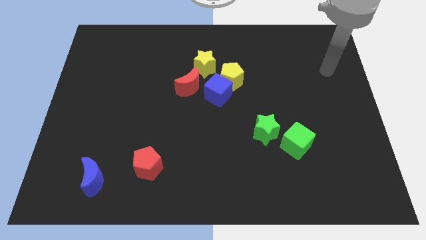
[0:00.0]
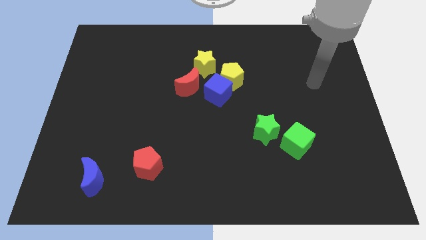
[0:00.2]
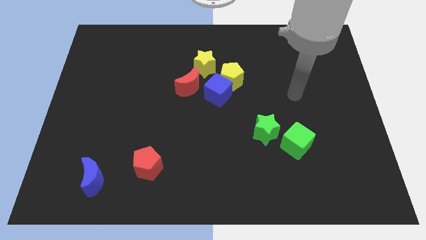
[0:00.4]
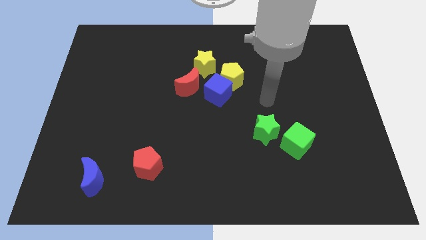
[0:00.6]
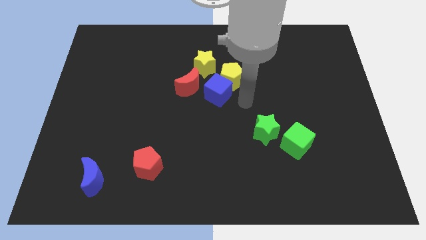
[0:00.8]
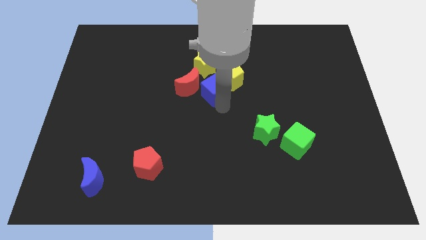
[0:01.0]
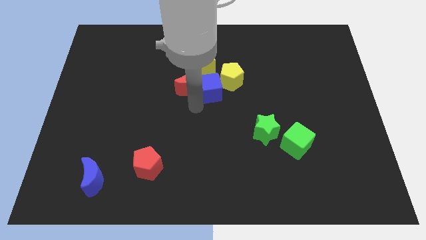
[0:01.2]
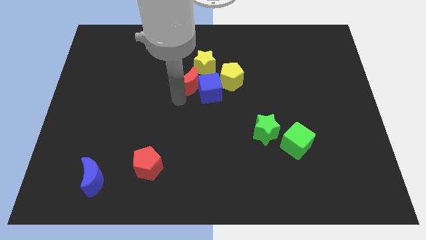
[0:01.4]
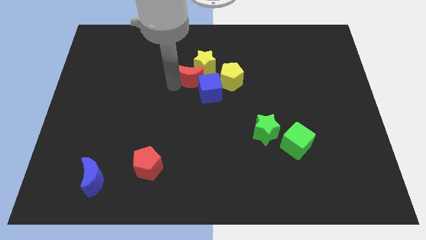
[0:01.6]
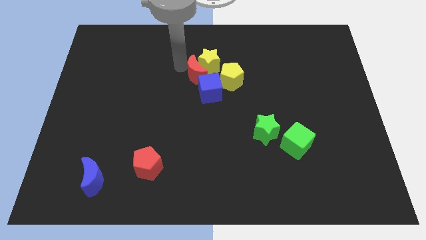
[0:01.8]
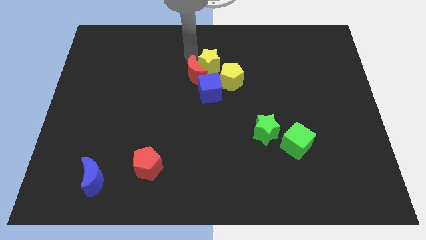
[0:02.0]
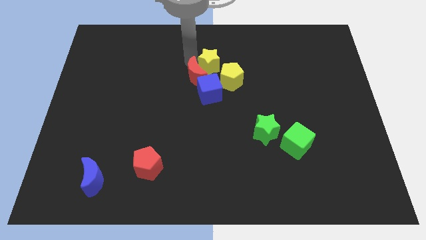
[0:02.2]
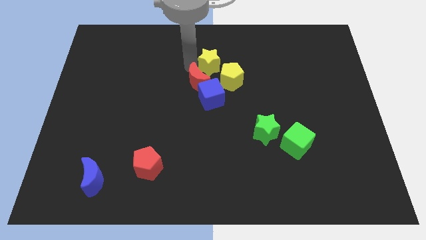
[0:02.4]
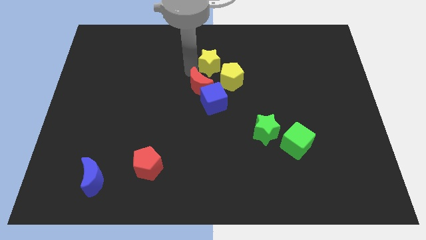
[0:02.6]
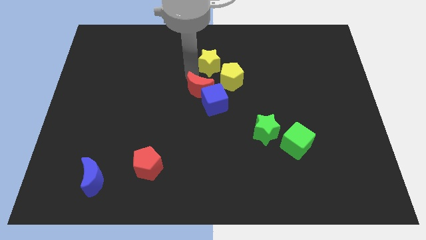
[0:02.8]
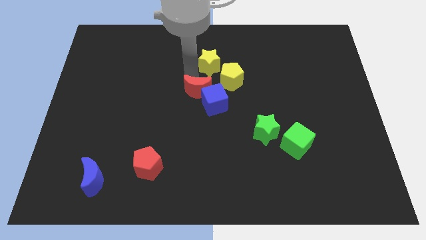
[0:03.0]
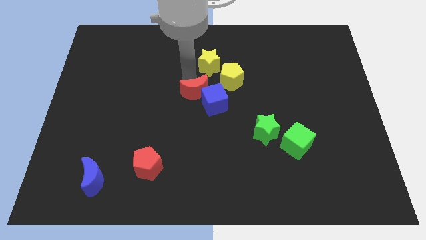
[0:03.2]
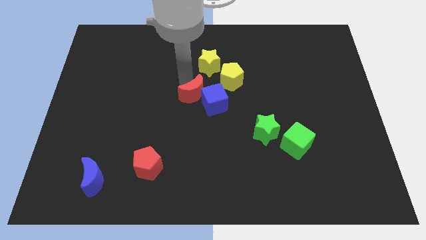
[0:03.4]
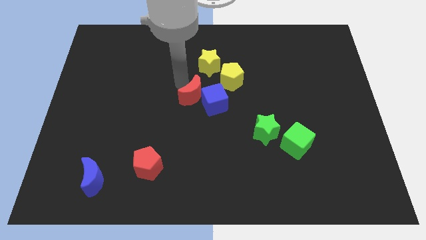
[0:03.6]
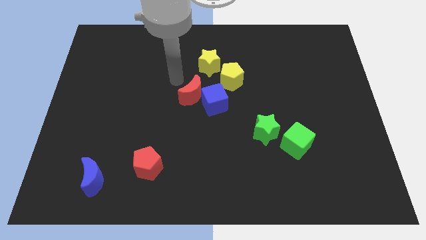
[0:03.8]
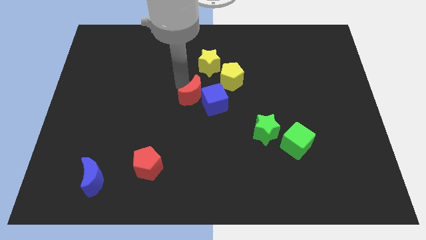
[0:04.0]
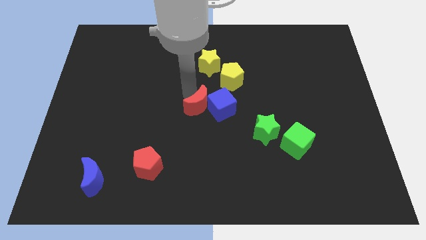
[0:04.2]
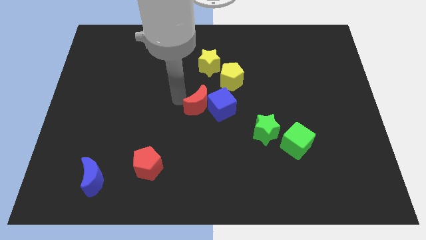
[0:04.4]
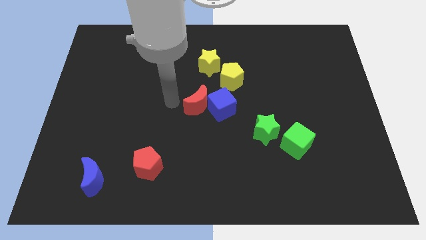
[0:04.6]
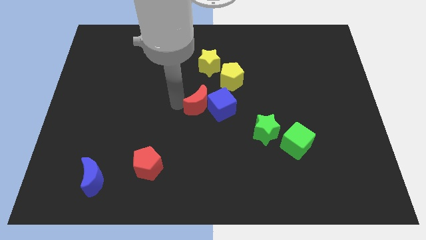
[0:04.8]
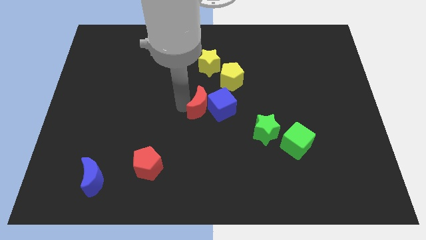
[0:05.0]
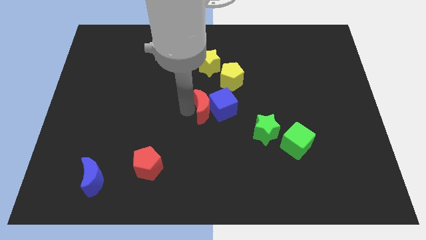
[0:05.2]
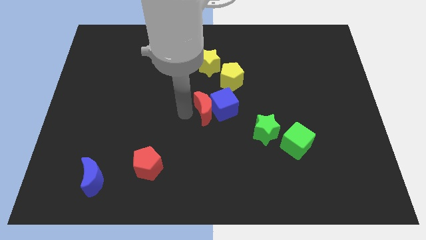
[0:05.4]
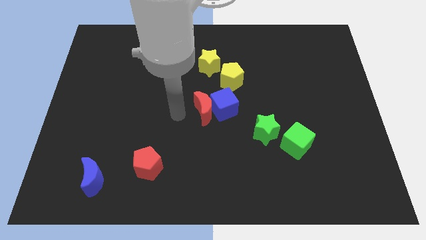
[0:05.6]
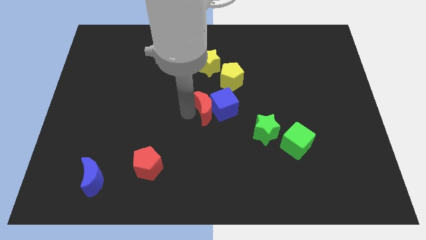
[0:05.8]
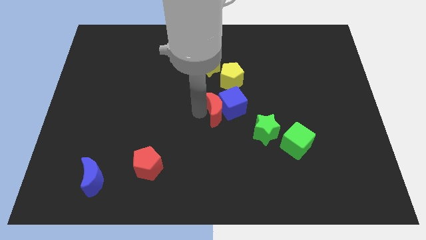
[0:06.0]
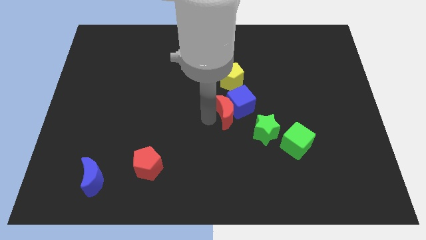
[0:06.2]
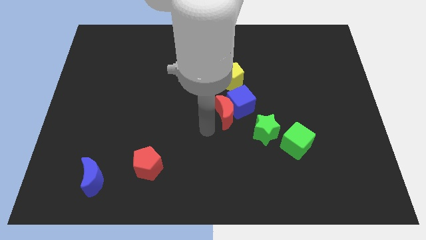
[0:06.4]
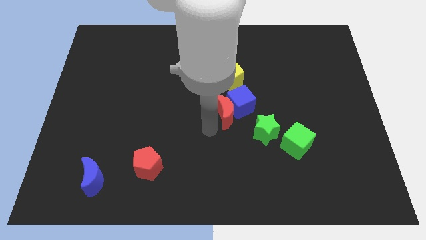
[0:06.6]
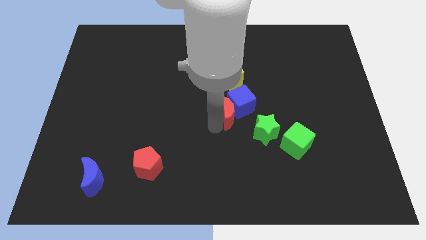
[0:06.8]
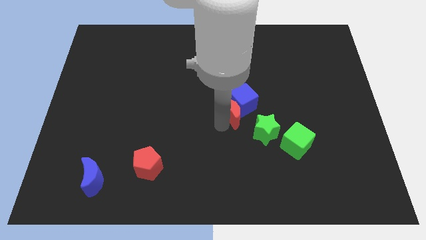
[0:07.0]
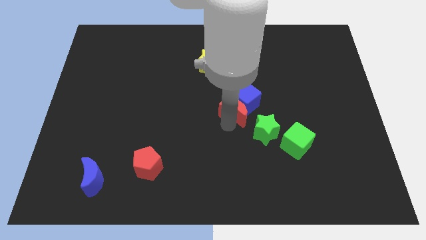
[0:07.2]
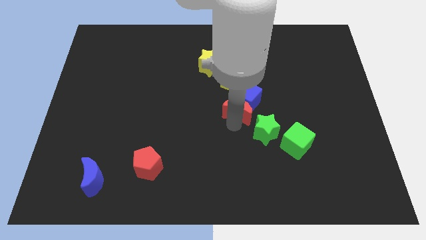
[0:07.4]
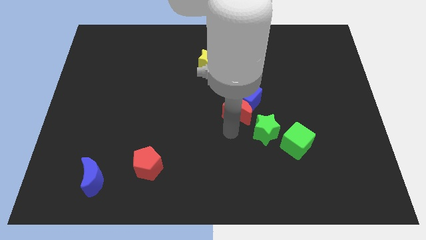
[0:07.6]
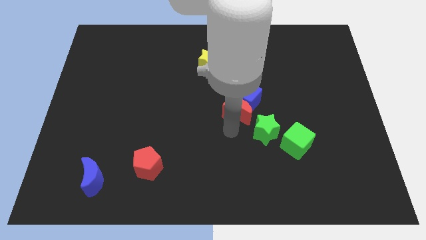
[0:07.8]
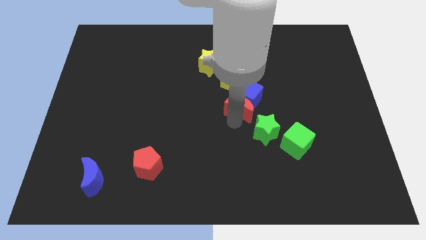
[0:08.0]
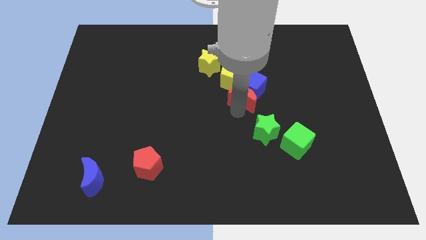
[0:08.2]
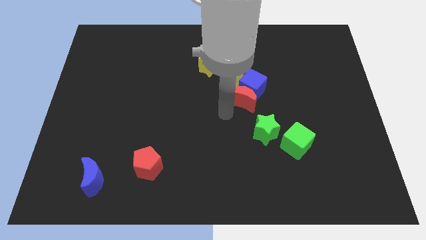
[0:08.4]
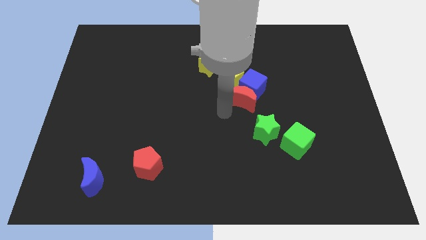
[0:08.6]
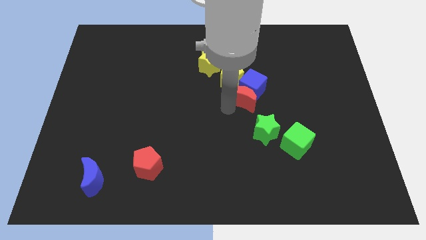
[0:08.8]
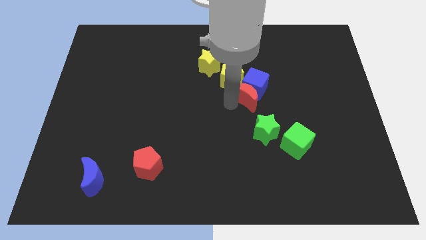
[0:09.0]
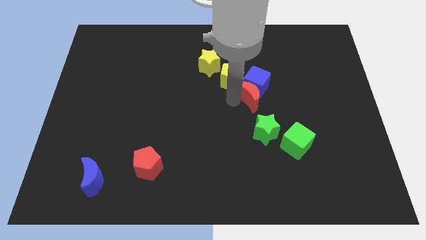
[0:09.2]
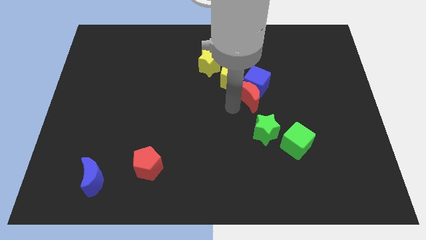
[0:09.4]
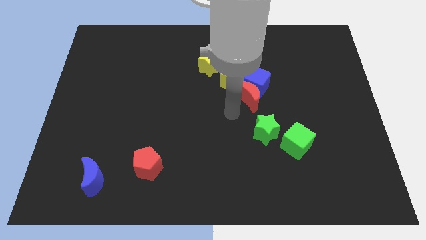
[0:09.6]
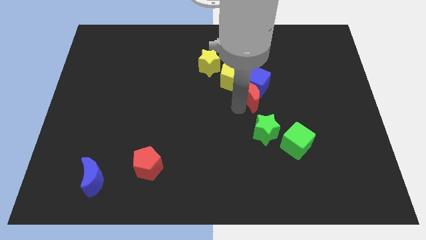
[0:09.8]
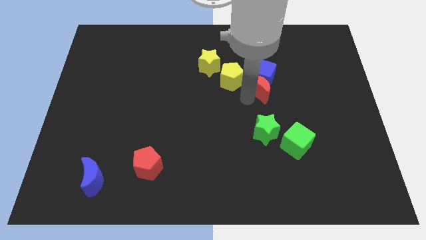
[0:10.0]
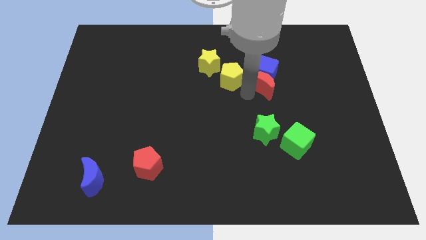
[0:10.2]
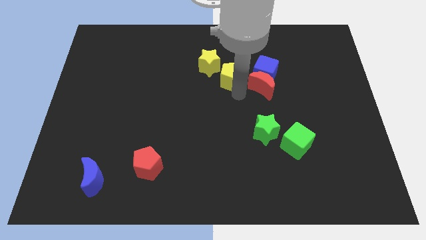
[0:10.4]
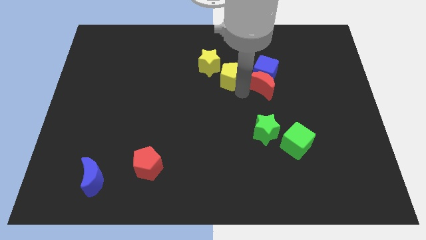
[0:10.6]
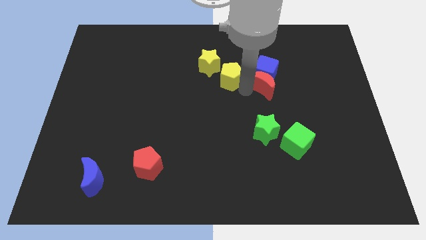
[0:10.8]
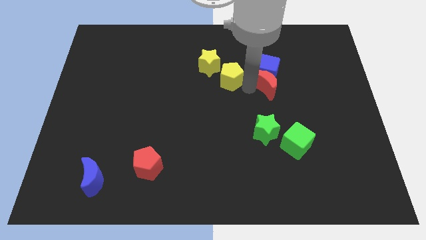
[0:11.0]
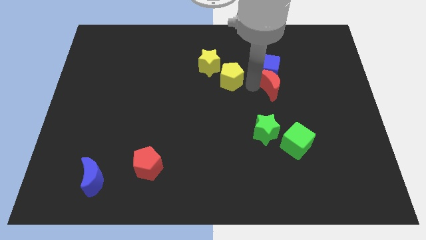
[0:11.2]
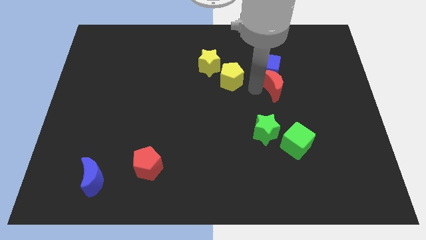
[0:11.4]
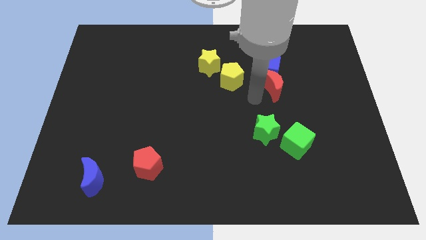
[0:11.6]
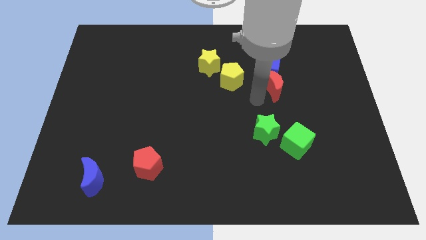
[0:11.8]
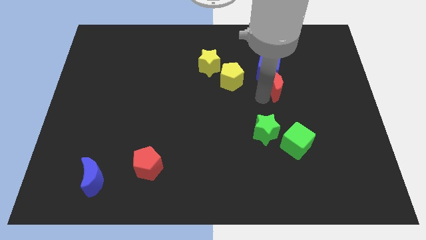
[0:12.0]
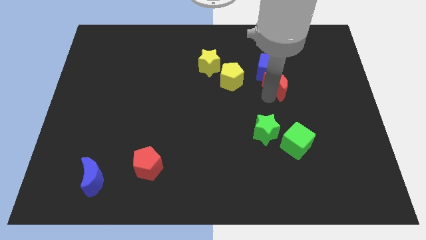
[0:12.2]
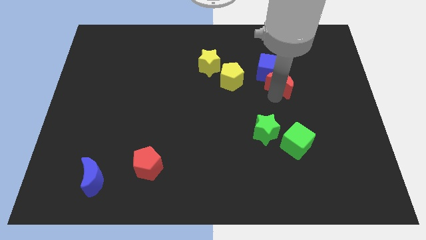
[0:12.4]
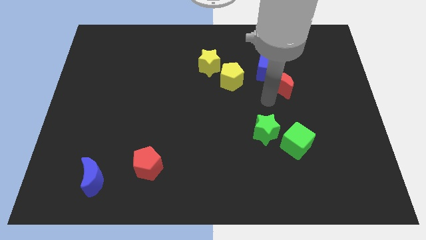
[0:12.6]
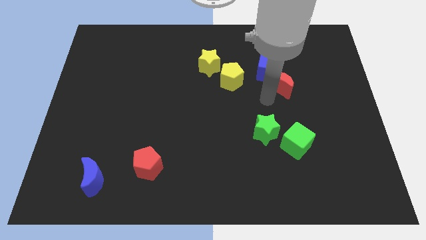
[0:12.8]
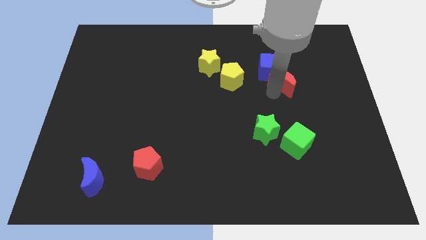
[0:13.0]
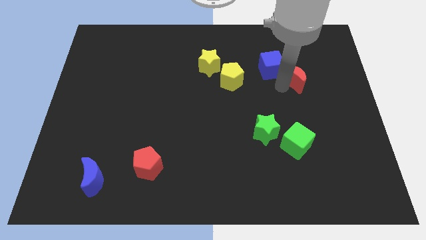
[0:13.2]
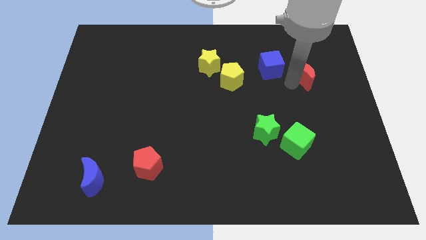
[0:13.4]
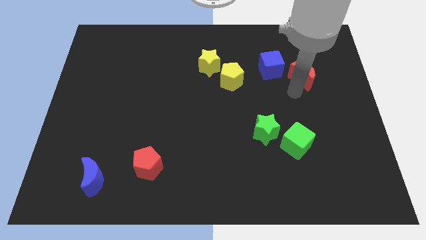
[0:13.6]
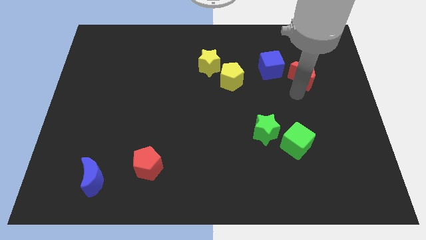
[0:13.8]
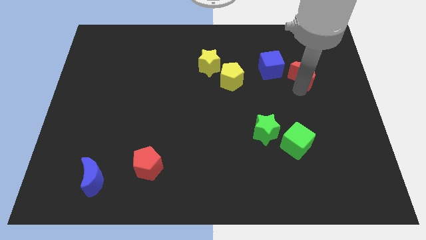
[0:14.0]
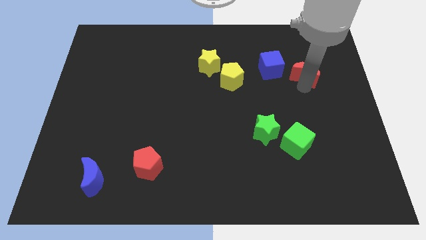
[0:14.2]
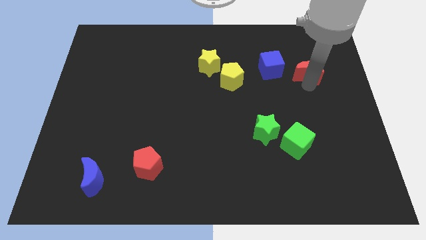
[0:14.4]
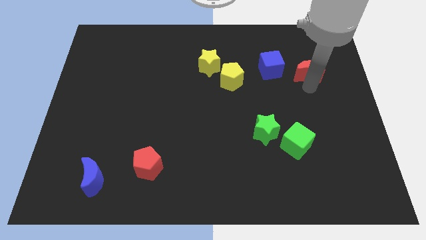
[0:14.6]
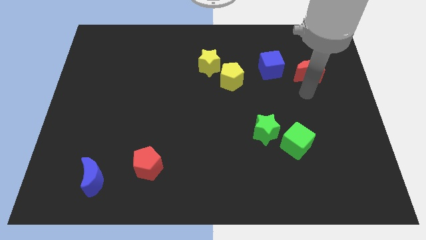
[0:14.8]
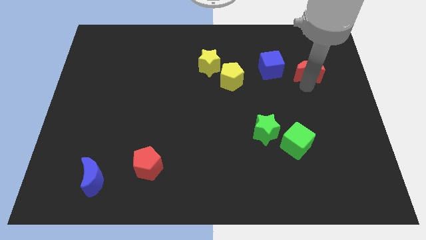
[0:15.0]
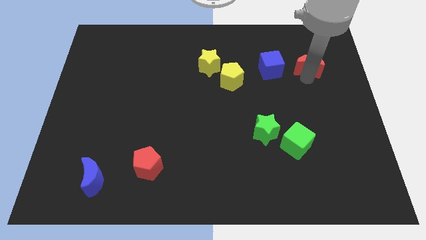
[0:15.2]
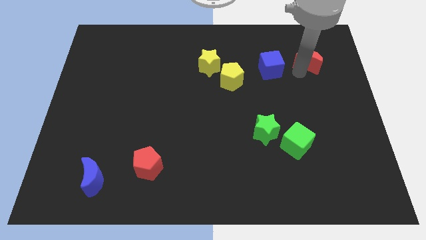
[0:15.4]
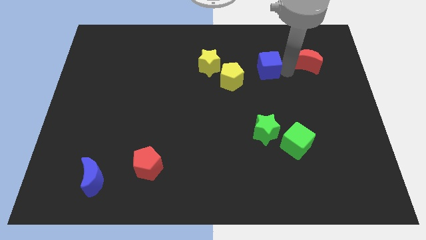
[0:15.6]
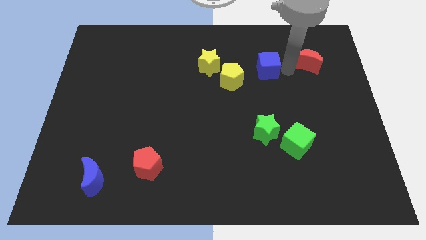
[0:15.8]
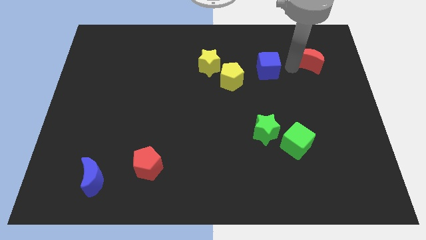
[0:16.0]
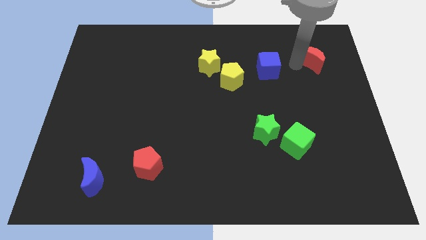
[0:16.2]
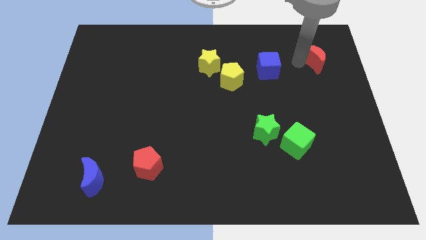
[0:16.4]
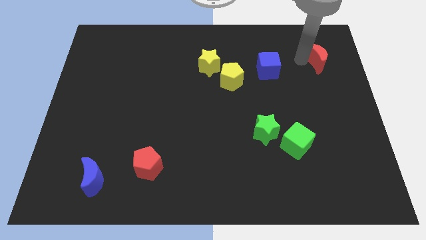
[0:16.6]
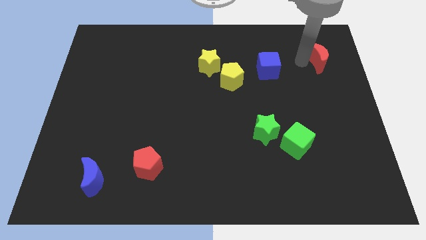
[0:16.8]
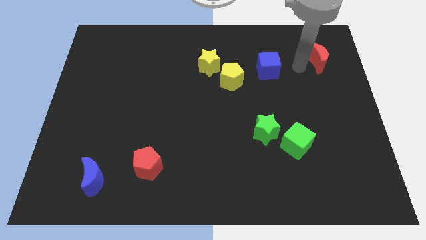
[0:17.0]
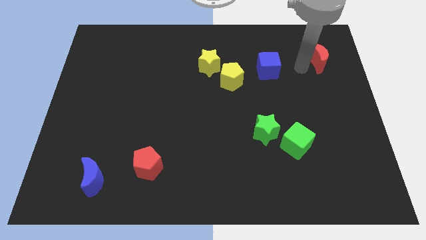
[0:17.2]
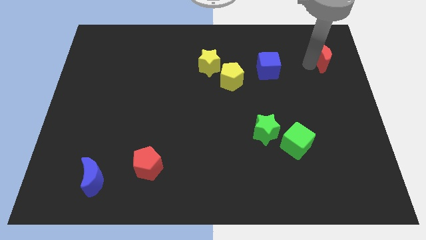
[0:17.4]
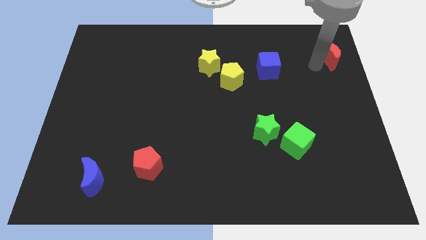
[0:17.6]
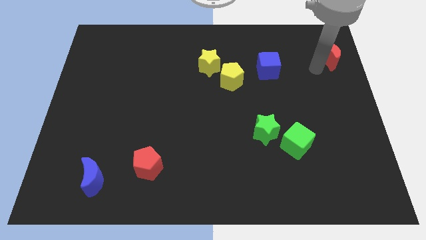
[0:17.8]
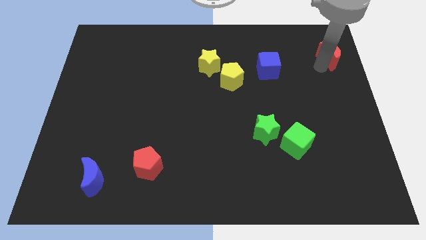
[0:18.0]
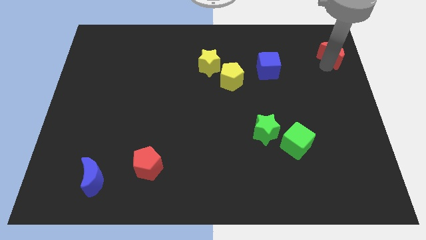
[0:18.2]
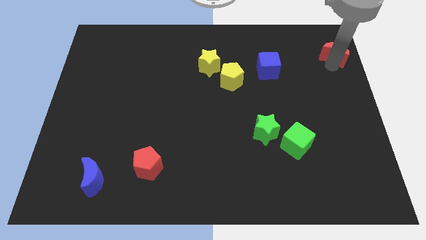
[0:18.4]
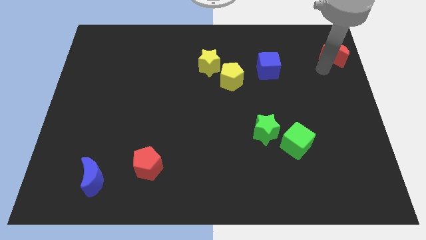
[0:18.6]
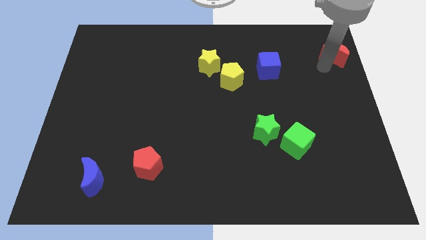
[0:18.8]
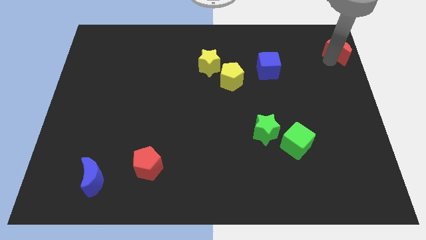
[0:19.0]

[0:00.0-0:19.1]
move the red moon to the top right corner
